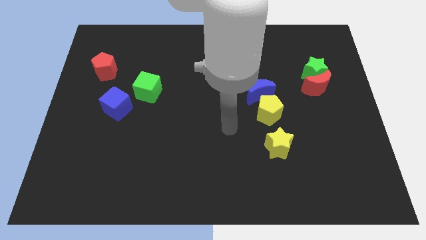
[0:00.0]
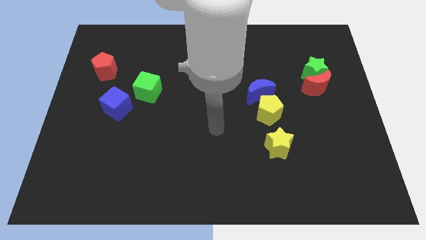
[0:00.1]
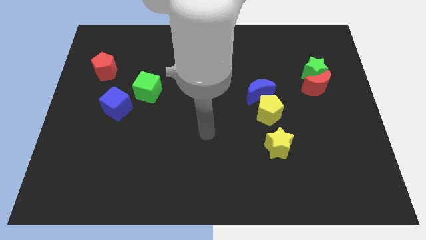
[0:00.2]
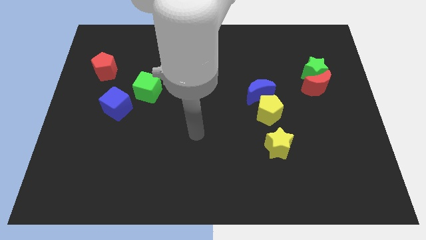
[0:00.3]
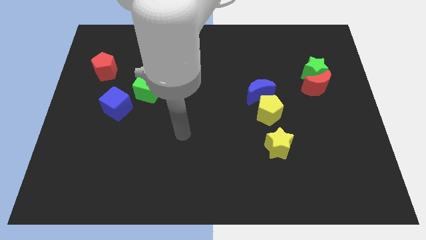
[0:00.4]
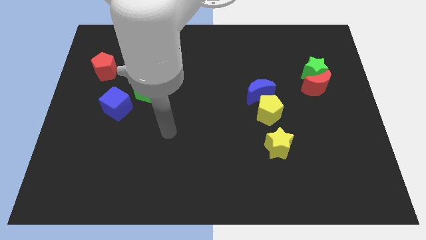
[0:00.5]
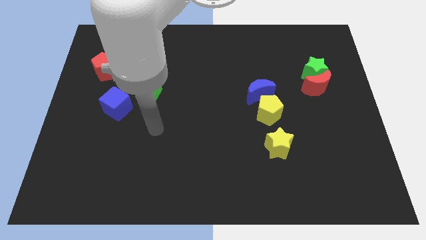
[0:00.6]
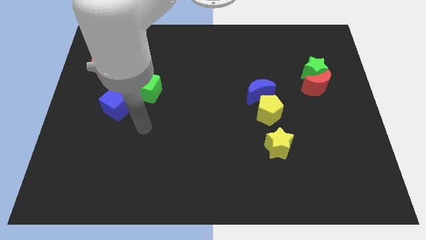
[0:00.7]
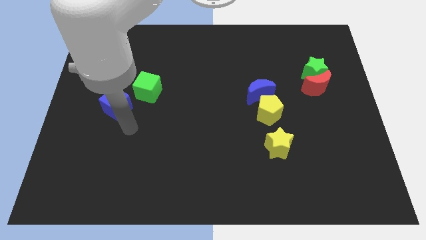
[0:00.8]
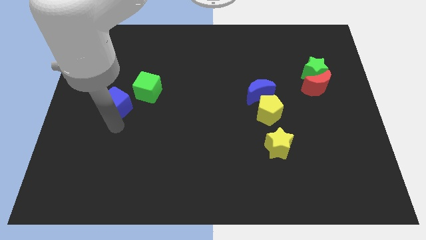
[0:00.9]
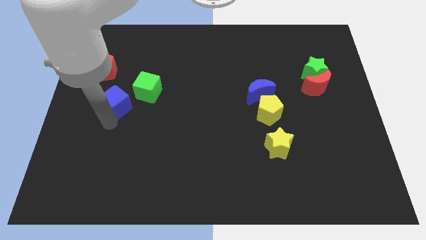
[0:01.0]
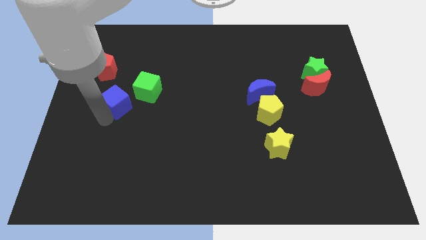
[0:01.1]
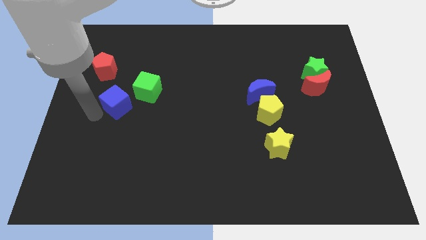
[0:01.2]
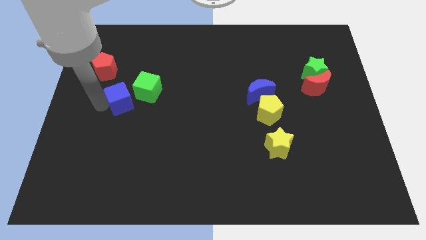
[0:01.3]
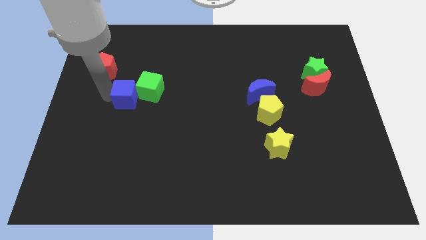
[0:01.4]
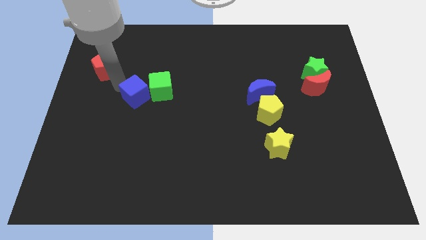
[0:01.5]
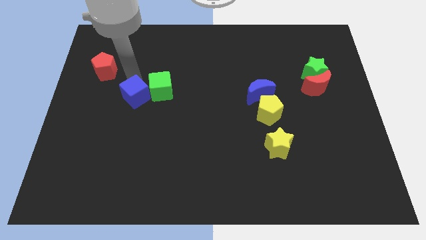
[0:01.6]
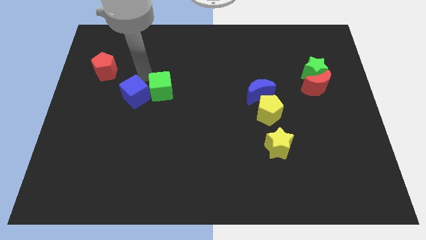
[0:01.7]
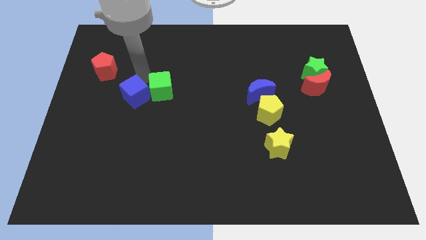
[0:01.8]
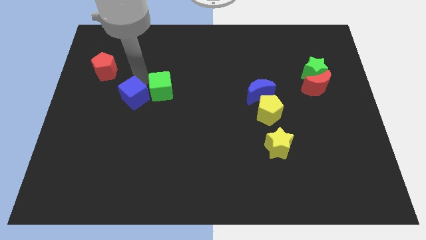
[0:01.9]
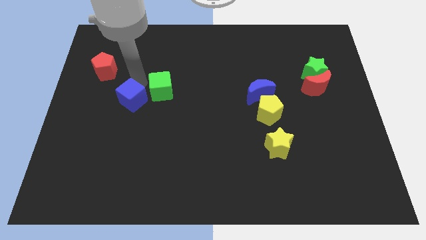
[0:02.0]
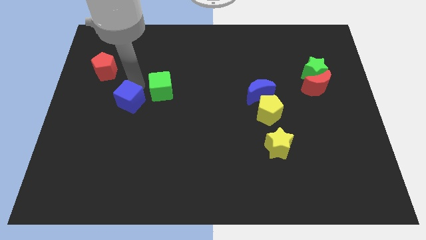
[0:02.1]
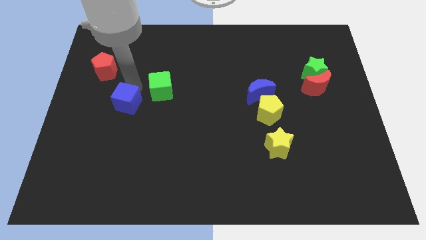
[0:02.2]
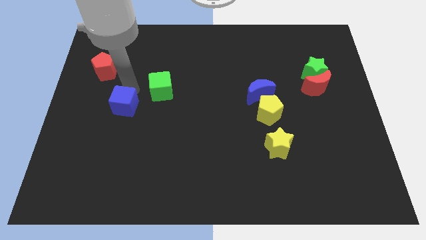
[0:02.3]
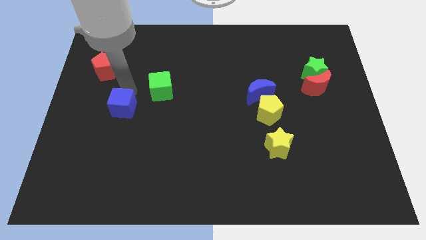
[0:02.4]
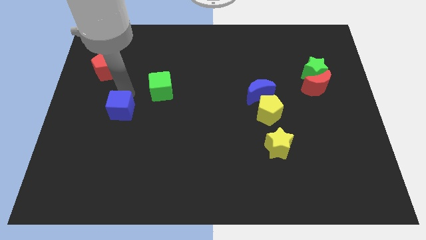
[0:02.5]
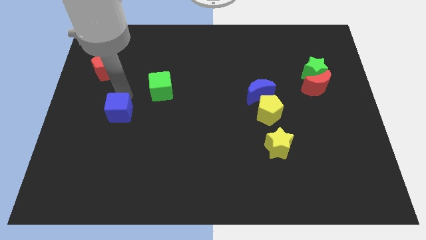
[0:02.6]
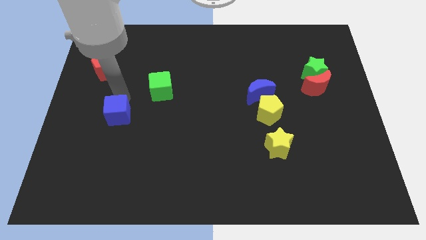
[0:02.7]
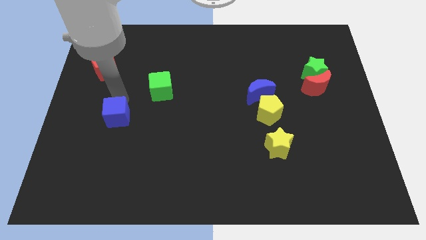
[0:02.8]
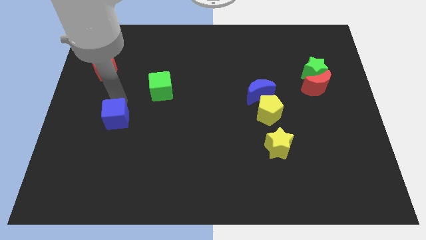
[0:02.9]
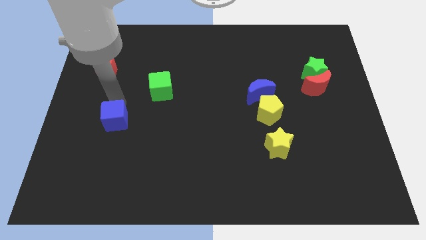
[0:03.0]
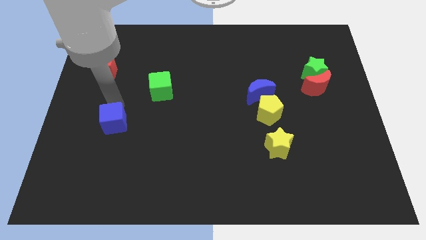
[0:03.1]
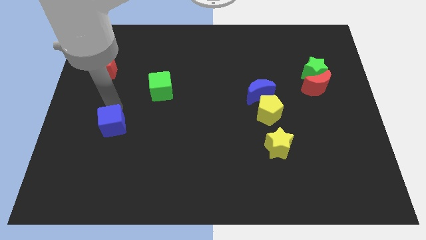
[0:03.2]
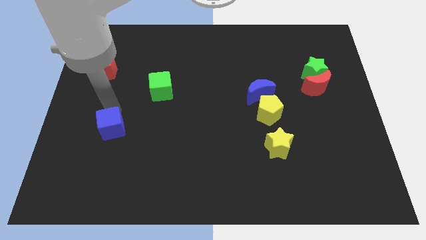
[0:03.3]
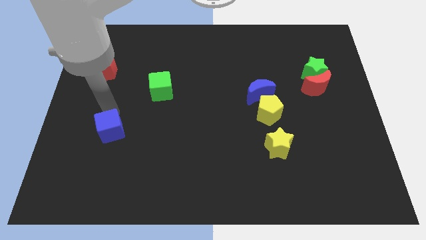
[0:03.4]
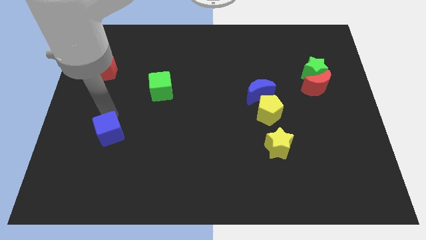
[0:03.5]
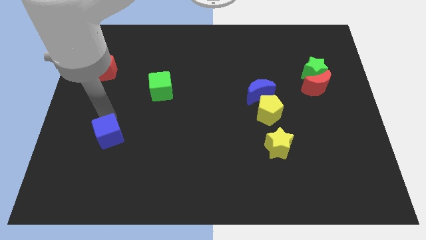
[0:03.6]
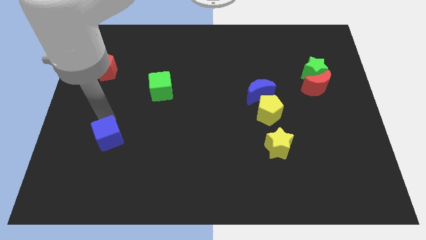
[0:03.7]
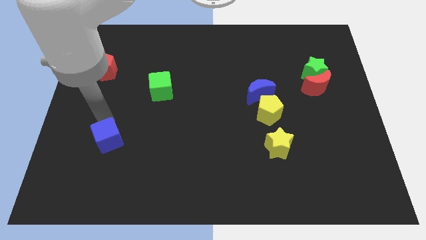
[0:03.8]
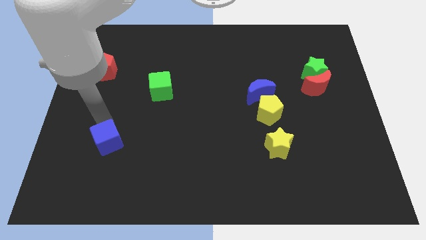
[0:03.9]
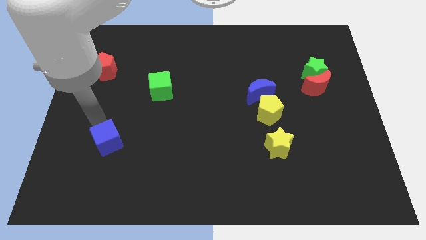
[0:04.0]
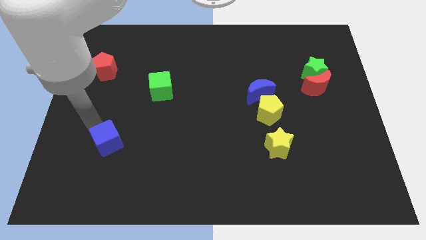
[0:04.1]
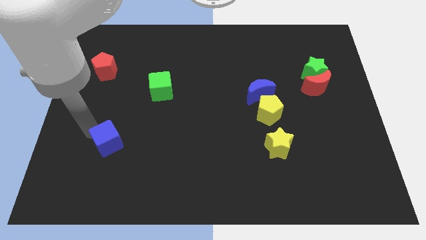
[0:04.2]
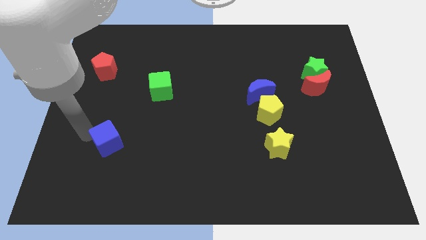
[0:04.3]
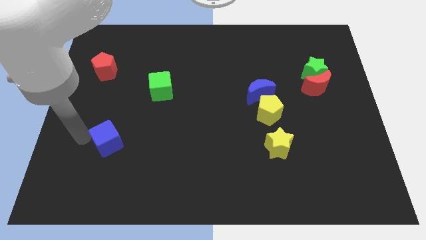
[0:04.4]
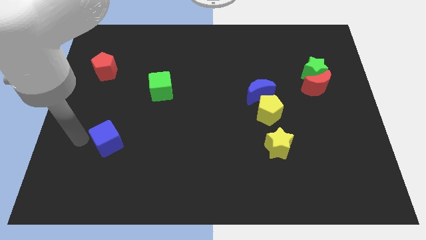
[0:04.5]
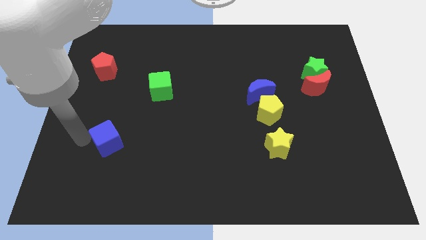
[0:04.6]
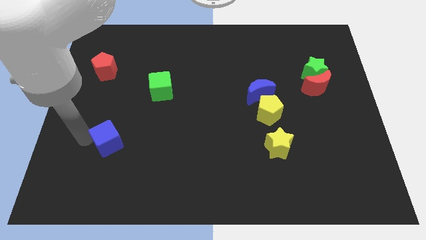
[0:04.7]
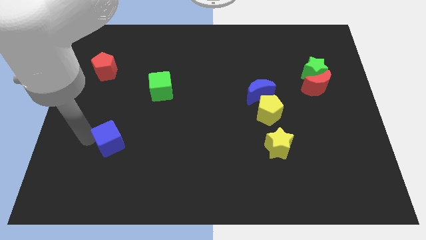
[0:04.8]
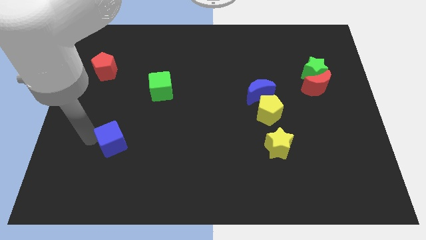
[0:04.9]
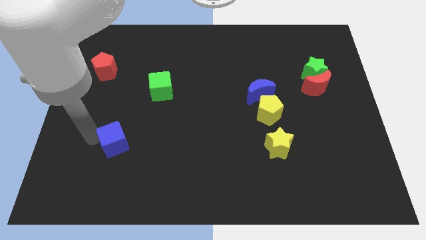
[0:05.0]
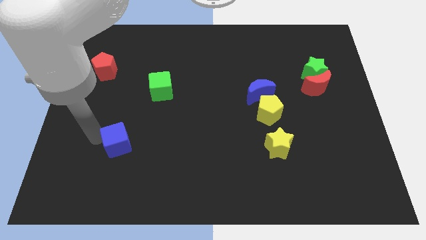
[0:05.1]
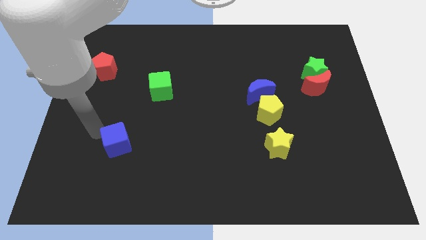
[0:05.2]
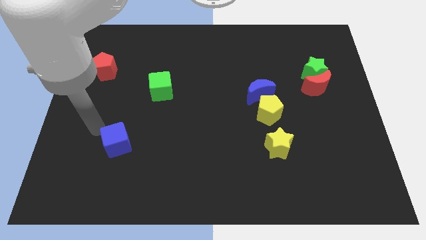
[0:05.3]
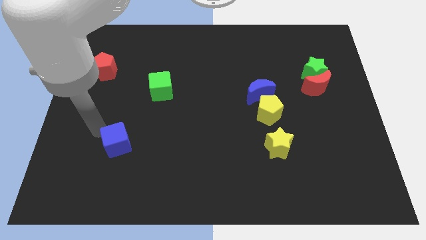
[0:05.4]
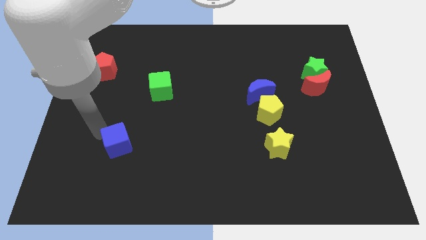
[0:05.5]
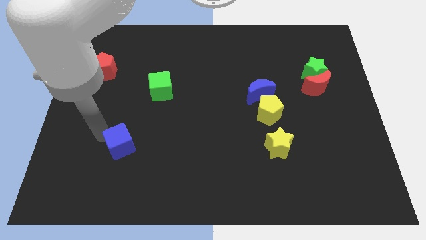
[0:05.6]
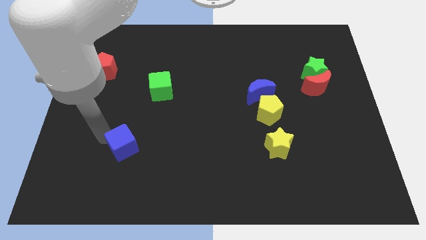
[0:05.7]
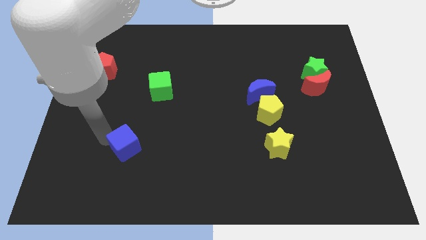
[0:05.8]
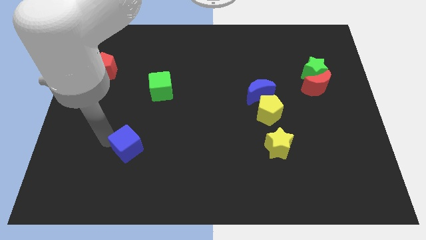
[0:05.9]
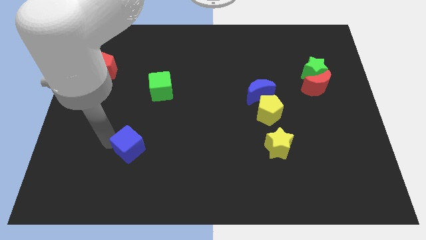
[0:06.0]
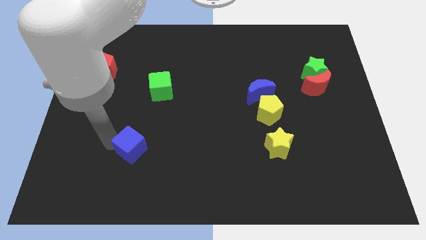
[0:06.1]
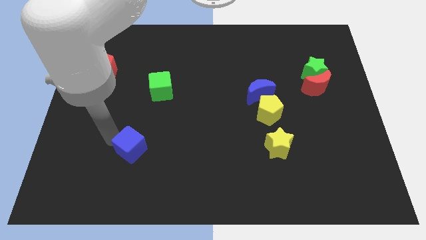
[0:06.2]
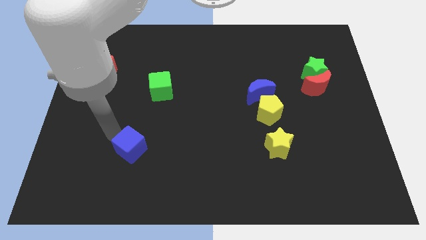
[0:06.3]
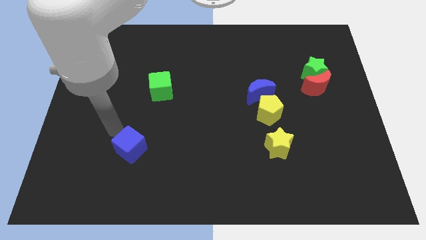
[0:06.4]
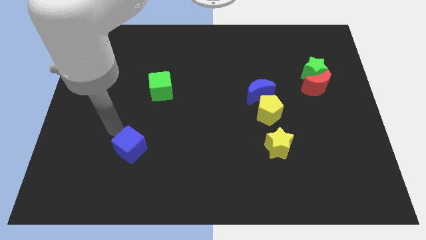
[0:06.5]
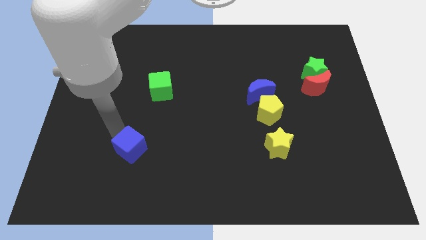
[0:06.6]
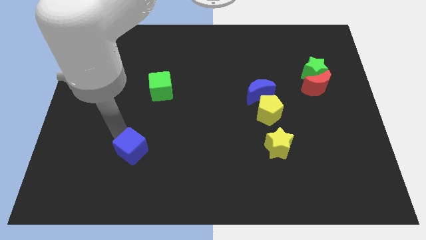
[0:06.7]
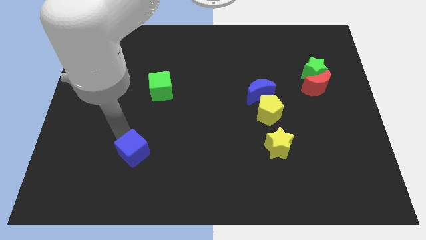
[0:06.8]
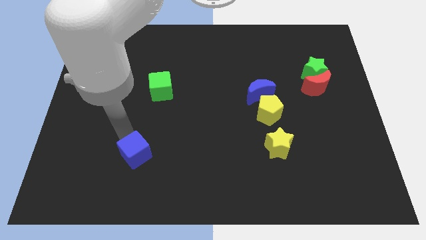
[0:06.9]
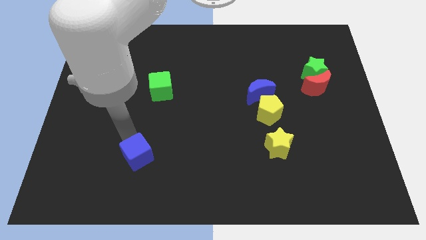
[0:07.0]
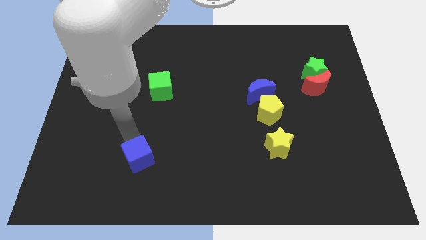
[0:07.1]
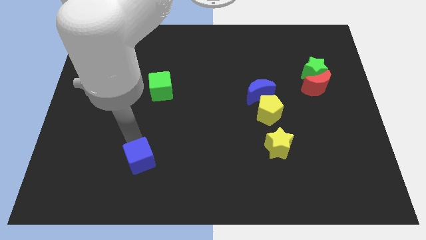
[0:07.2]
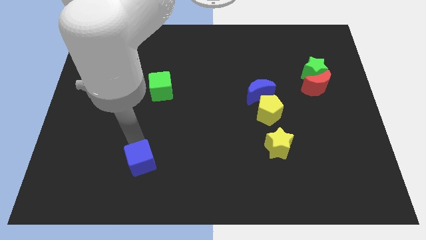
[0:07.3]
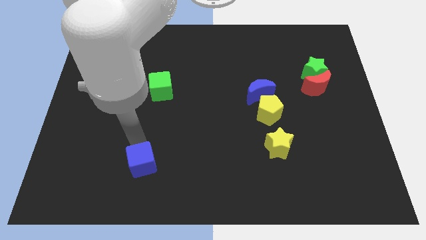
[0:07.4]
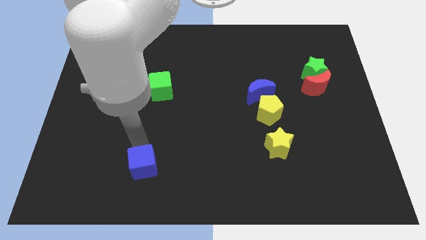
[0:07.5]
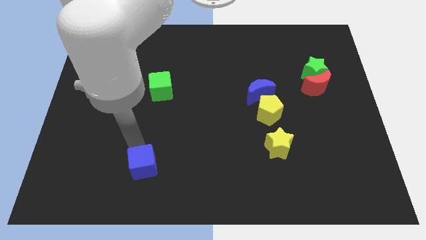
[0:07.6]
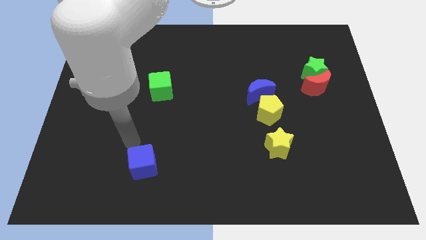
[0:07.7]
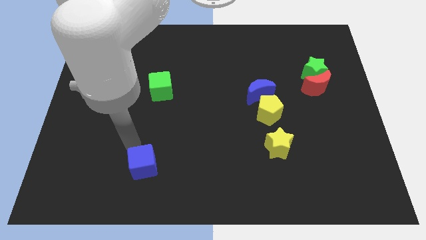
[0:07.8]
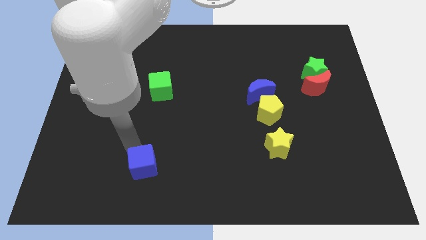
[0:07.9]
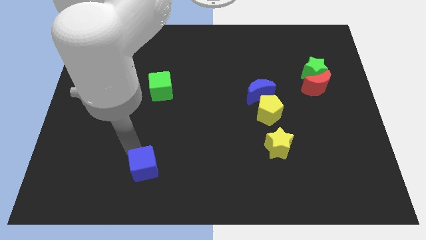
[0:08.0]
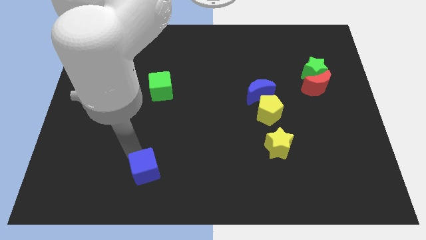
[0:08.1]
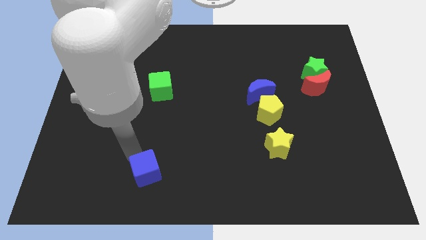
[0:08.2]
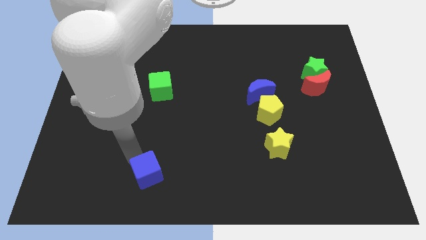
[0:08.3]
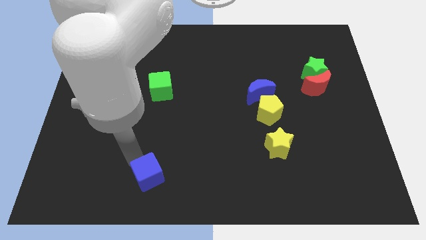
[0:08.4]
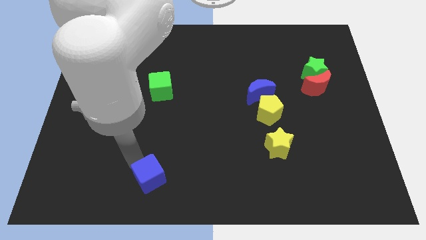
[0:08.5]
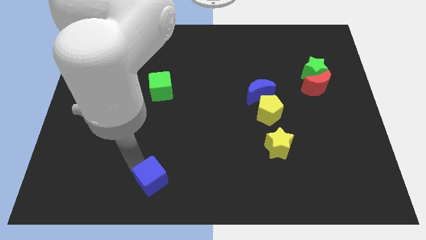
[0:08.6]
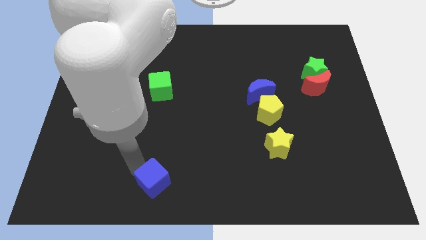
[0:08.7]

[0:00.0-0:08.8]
slide the blue cube to the bottom
